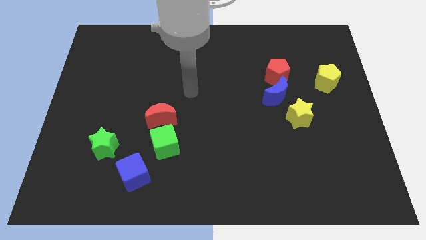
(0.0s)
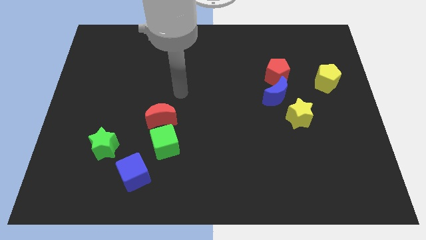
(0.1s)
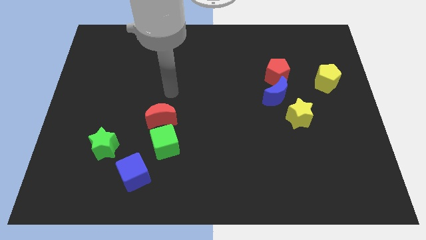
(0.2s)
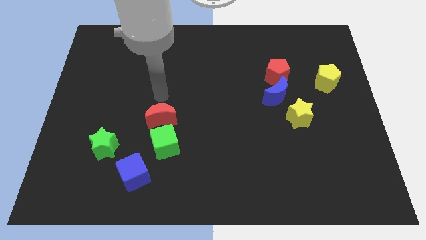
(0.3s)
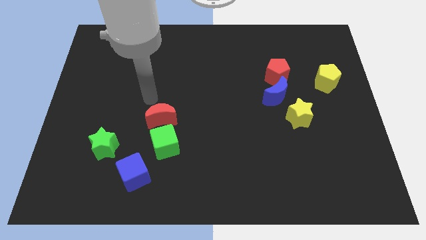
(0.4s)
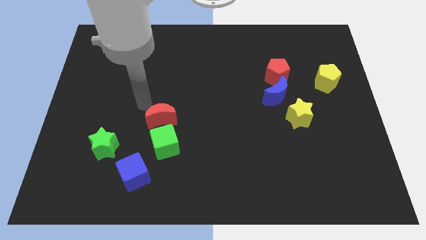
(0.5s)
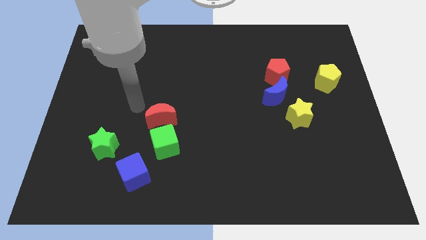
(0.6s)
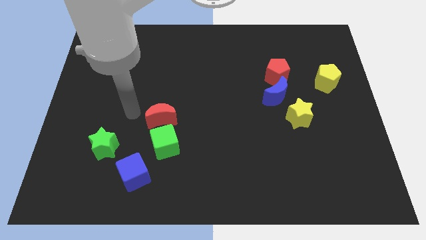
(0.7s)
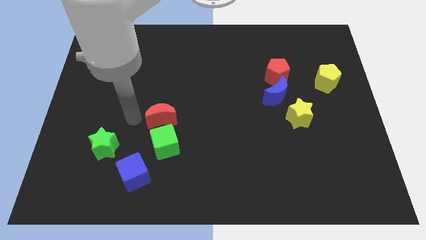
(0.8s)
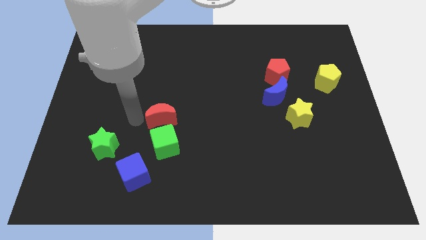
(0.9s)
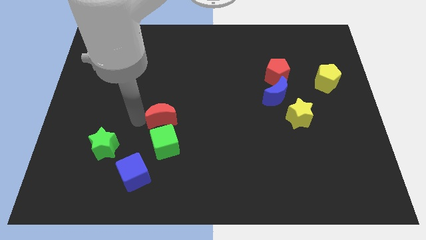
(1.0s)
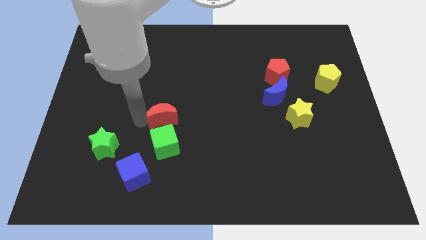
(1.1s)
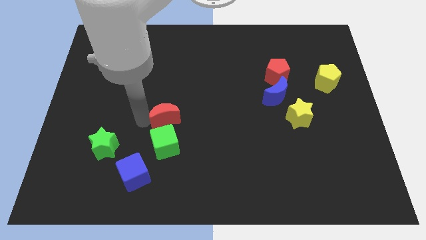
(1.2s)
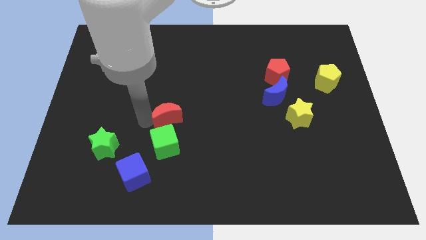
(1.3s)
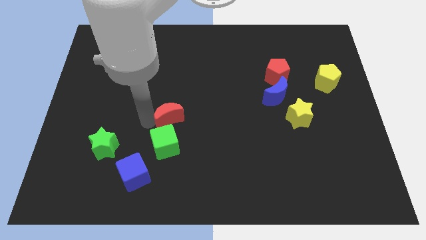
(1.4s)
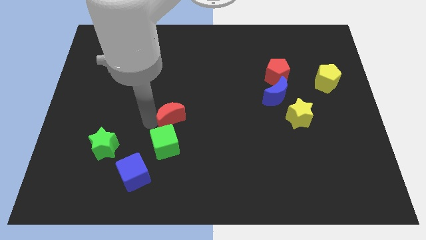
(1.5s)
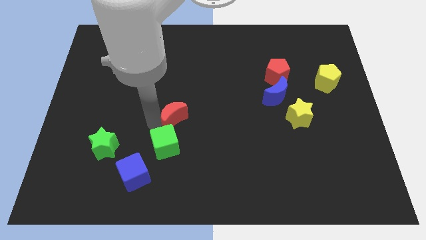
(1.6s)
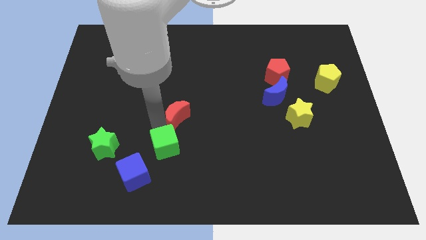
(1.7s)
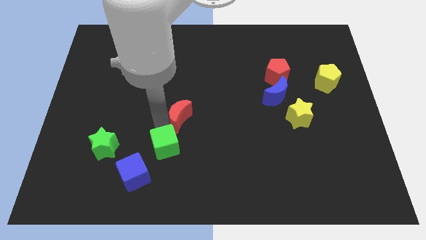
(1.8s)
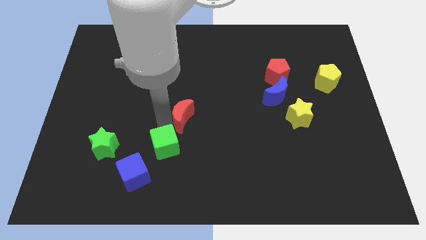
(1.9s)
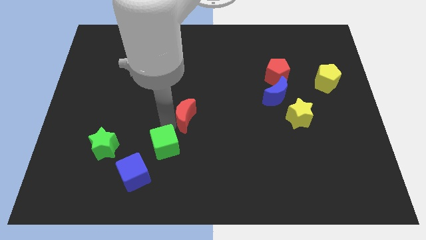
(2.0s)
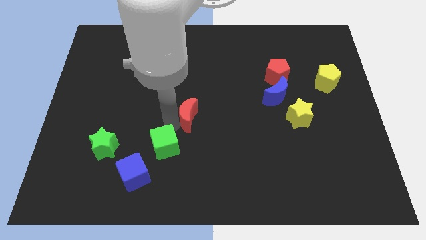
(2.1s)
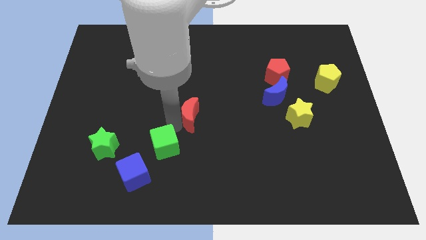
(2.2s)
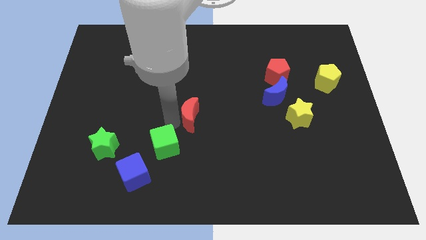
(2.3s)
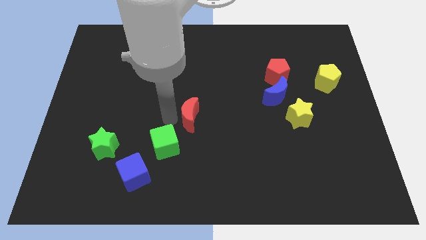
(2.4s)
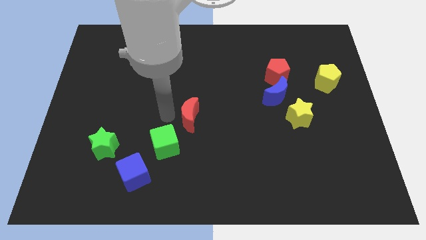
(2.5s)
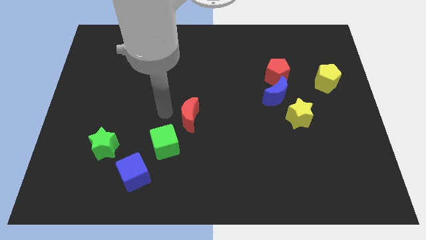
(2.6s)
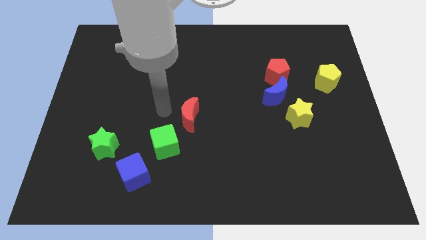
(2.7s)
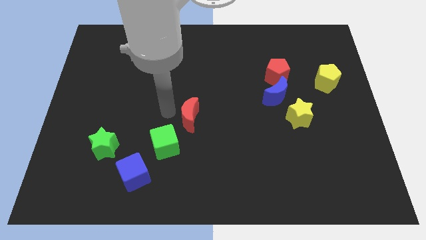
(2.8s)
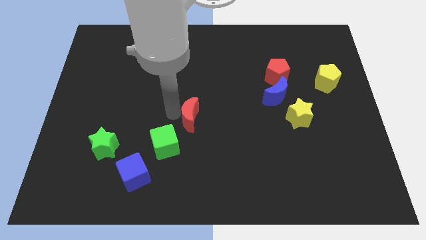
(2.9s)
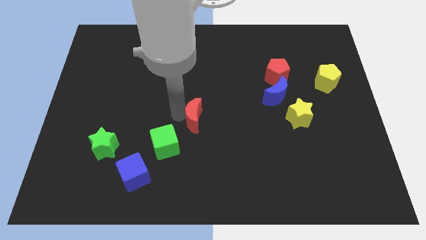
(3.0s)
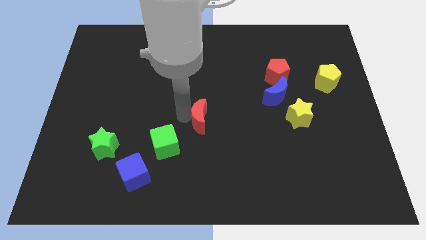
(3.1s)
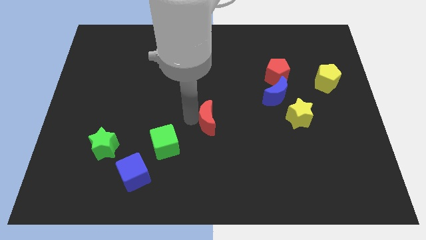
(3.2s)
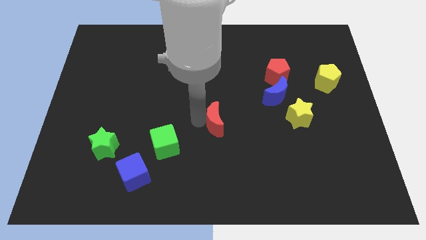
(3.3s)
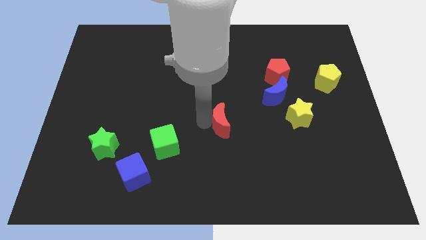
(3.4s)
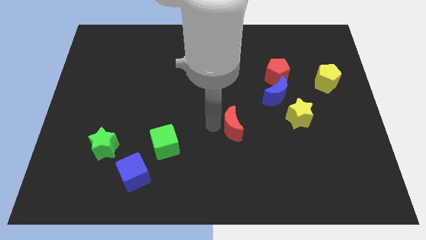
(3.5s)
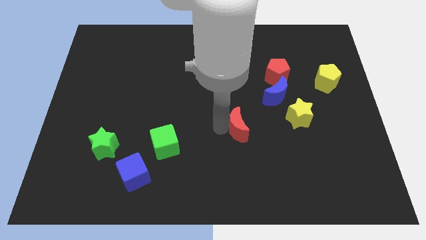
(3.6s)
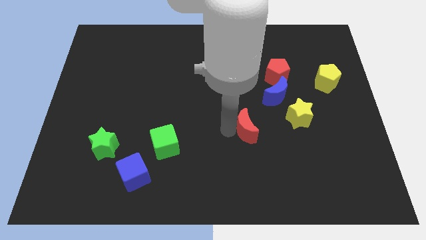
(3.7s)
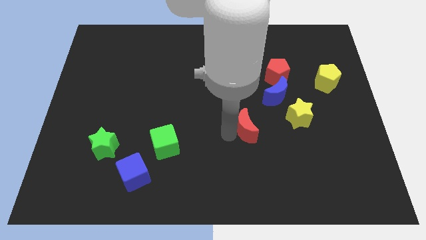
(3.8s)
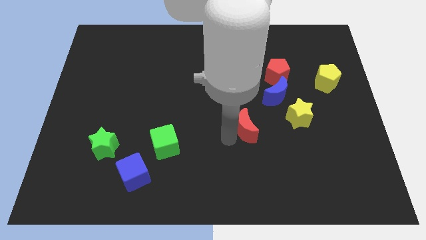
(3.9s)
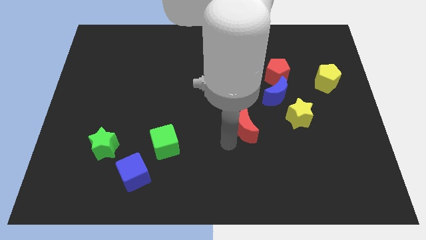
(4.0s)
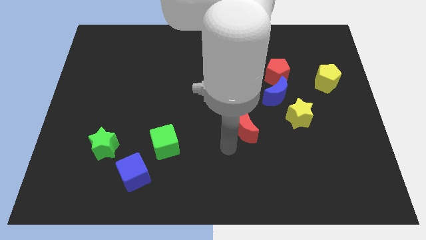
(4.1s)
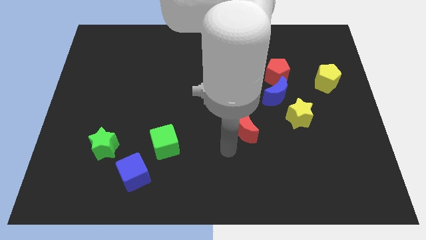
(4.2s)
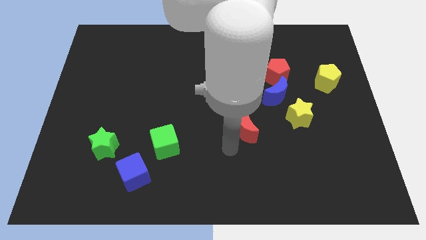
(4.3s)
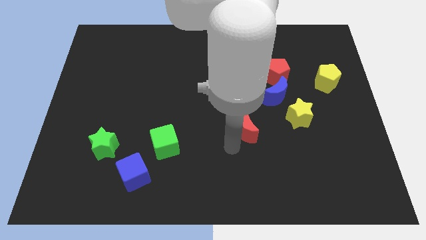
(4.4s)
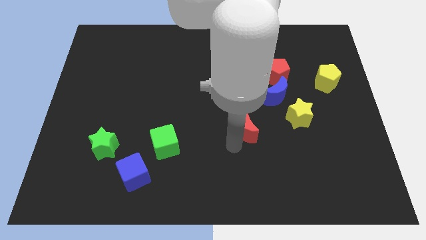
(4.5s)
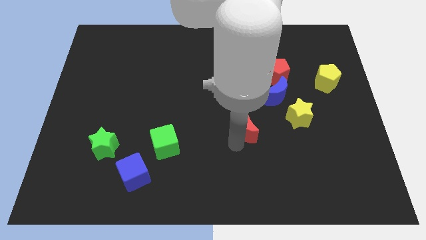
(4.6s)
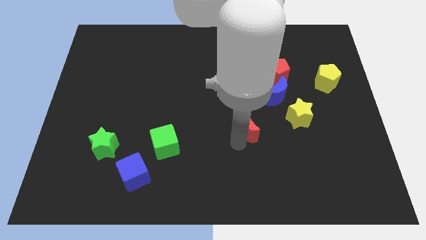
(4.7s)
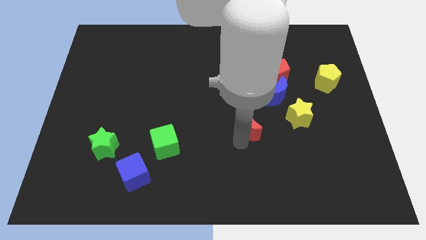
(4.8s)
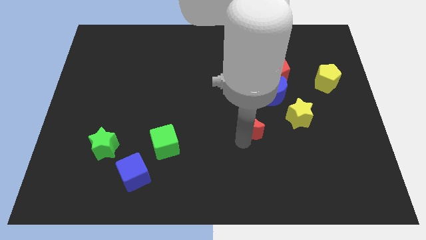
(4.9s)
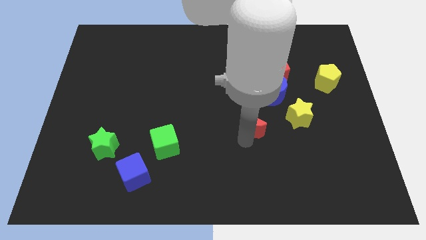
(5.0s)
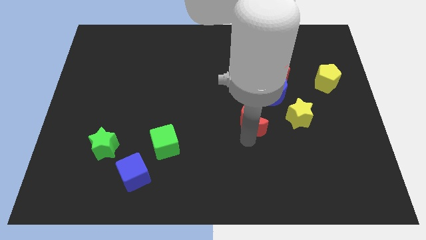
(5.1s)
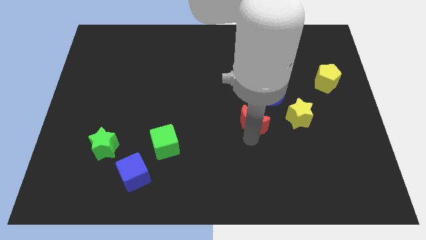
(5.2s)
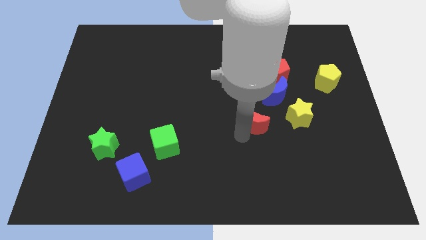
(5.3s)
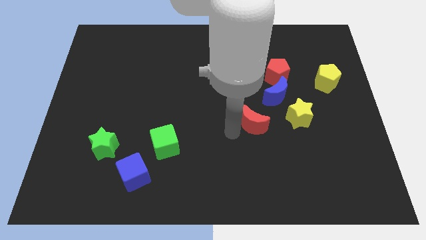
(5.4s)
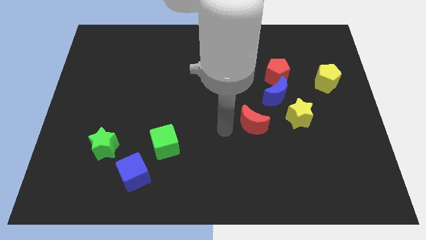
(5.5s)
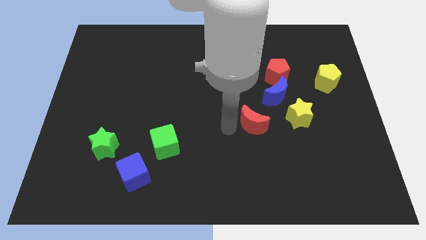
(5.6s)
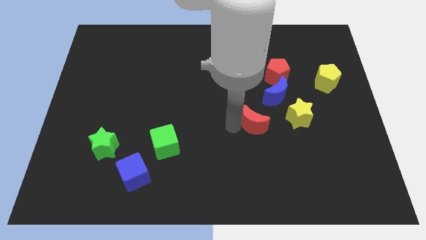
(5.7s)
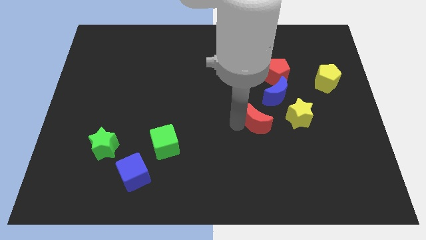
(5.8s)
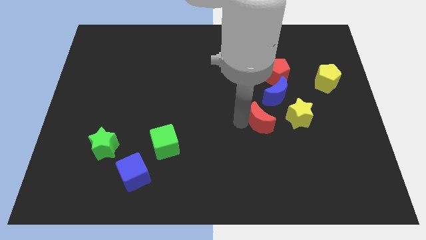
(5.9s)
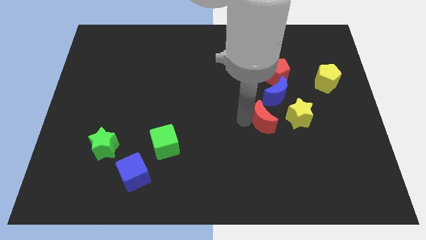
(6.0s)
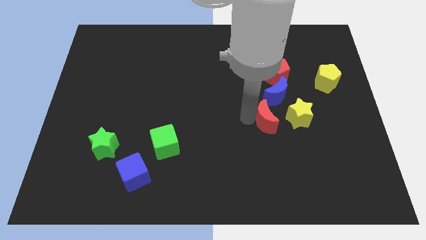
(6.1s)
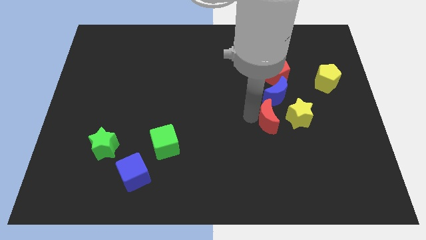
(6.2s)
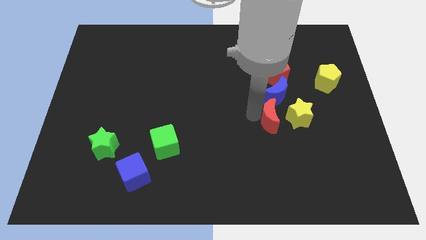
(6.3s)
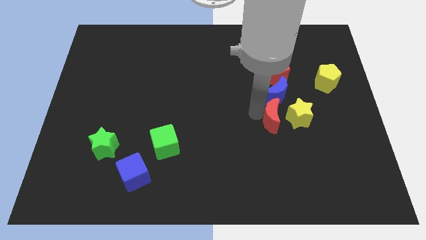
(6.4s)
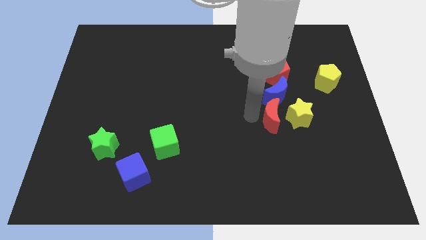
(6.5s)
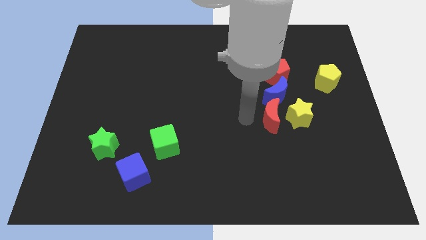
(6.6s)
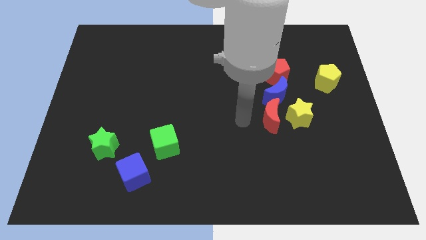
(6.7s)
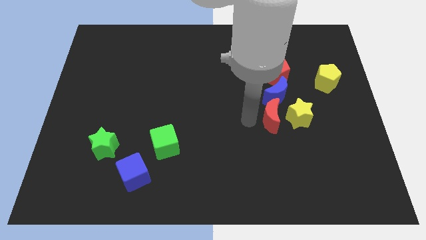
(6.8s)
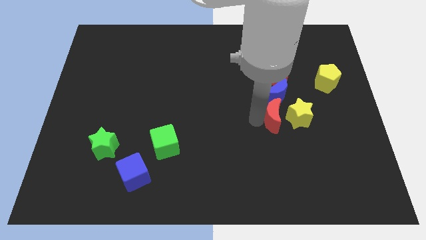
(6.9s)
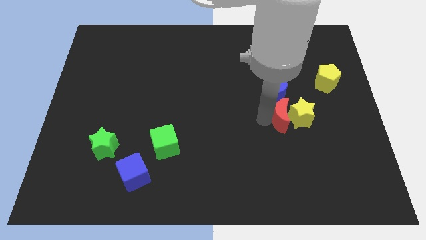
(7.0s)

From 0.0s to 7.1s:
move the red moon towards the yellow star

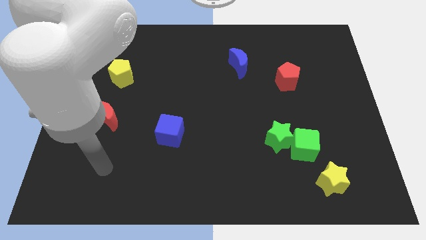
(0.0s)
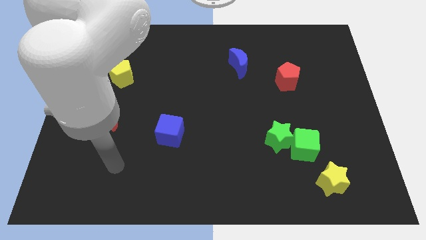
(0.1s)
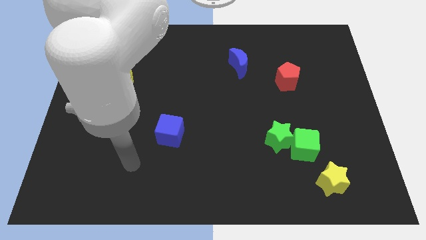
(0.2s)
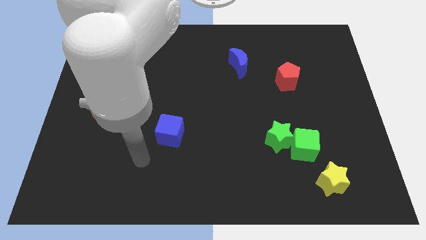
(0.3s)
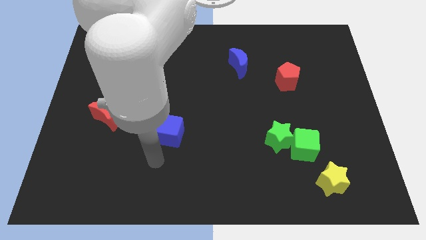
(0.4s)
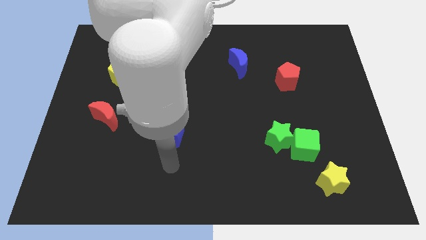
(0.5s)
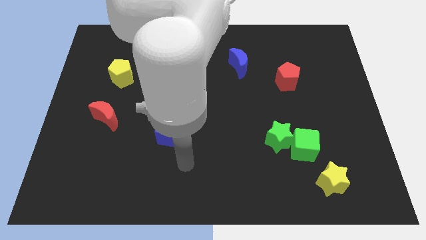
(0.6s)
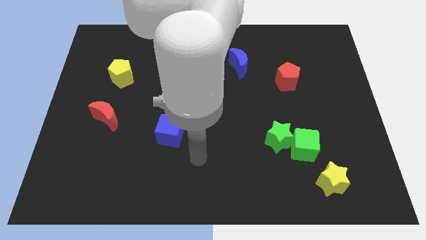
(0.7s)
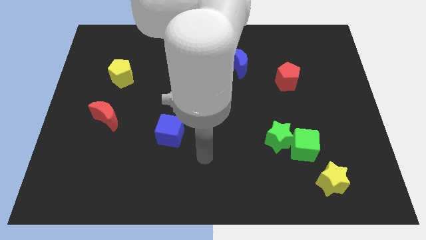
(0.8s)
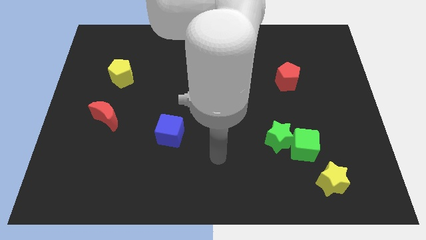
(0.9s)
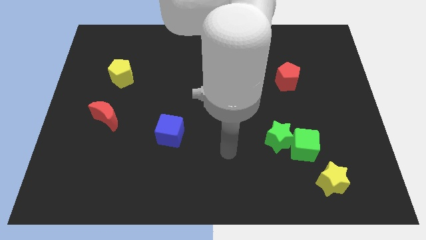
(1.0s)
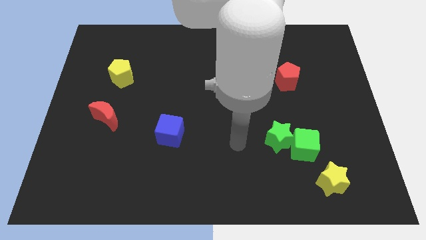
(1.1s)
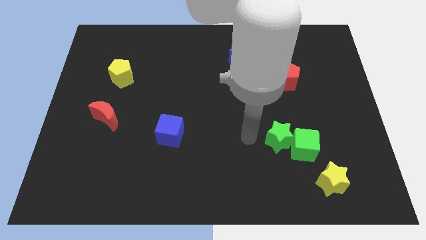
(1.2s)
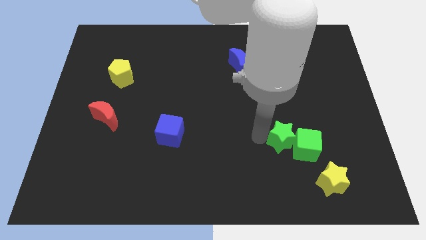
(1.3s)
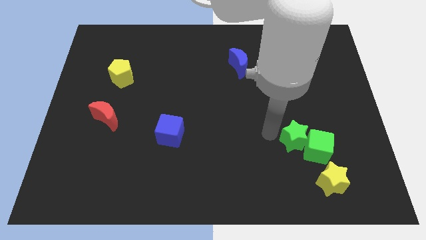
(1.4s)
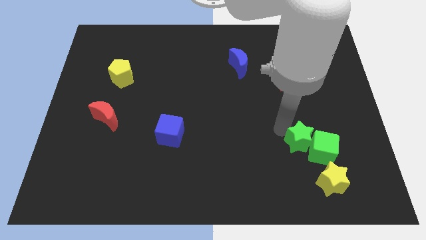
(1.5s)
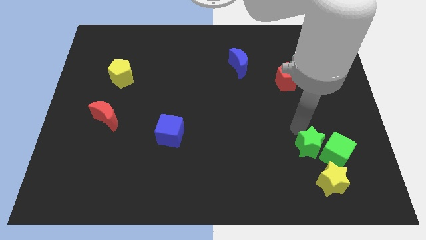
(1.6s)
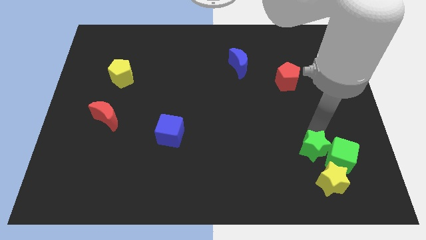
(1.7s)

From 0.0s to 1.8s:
put the green cube towards the yellow star
